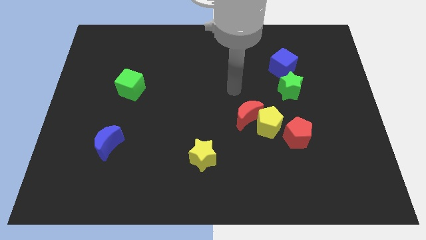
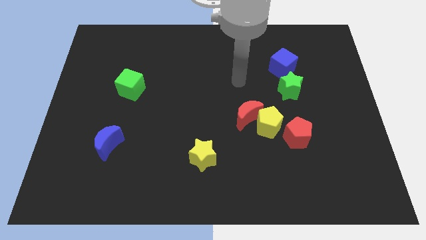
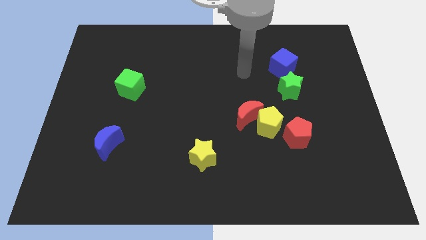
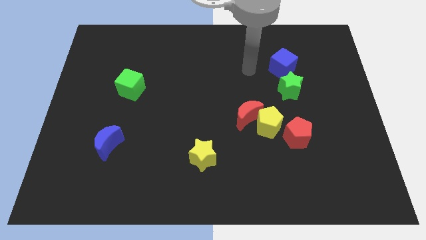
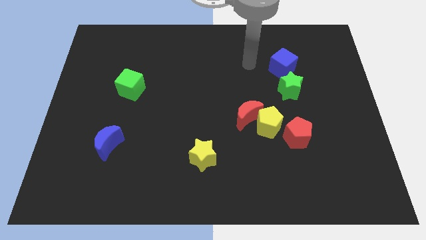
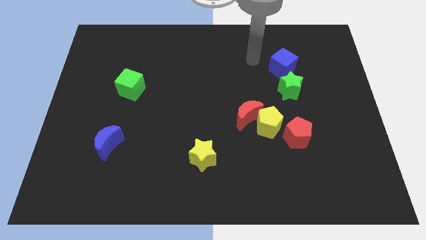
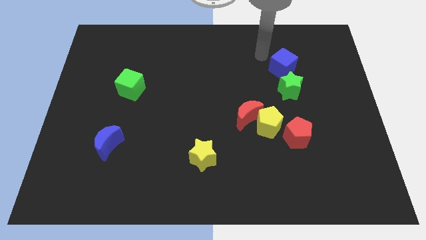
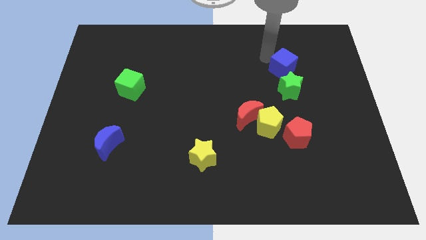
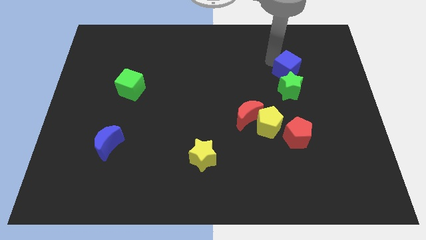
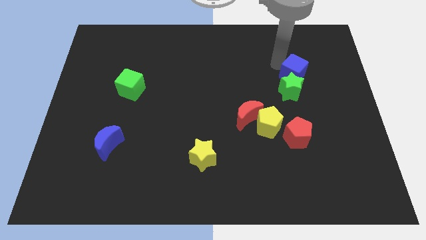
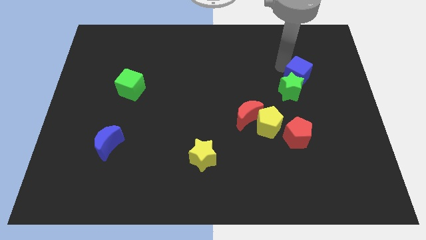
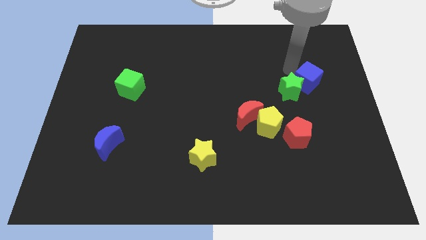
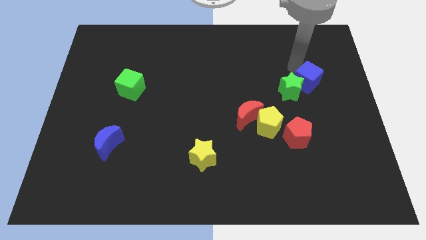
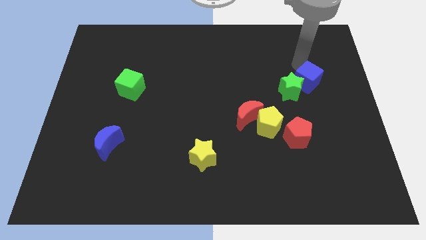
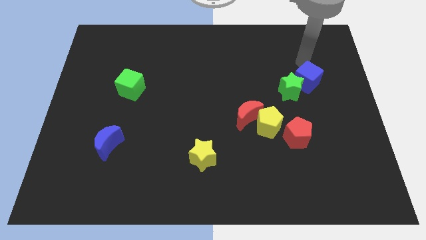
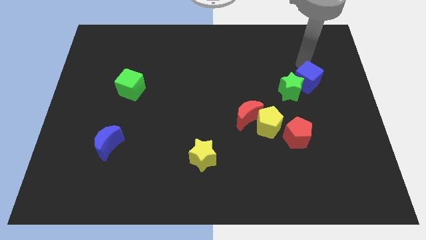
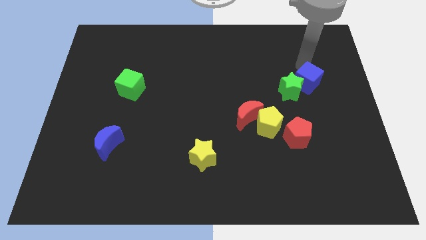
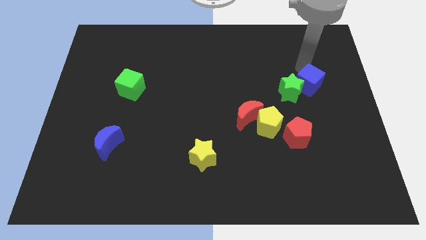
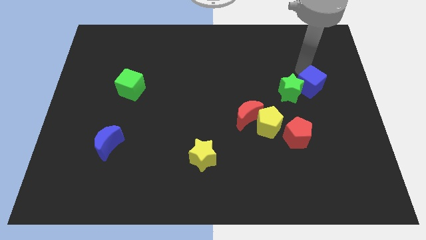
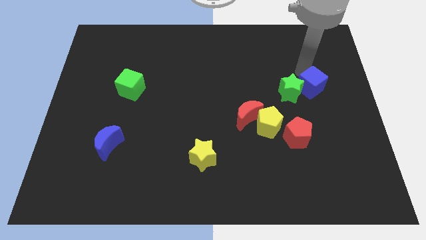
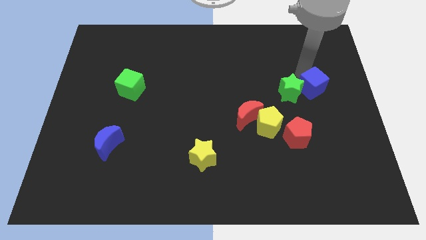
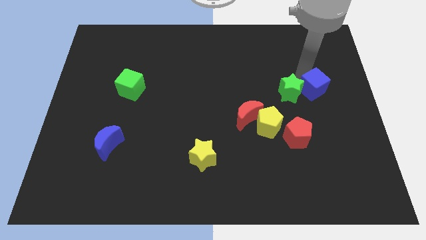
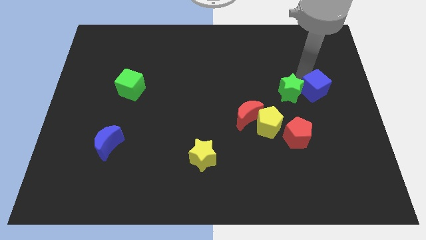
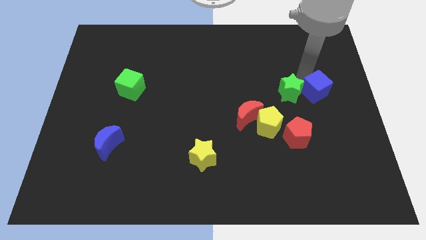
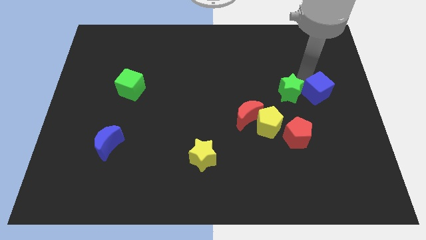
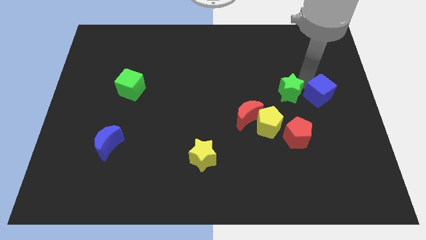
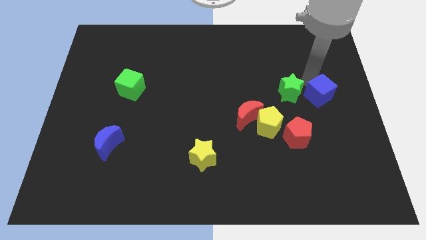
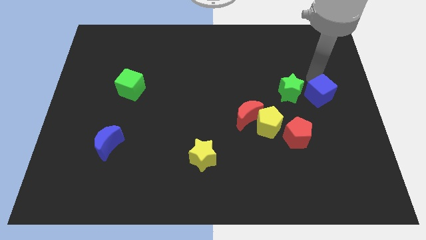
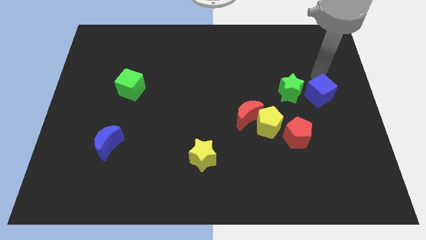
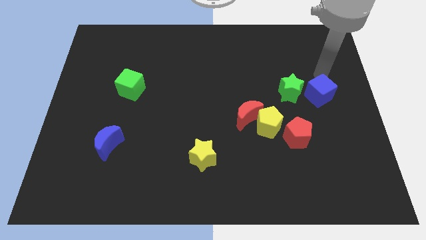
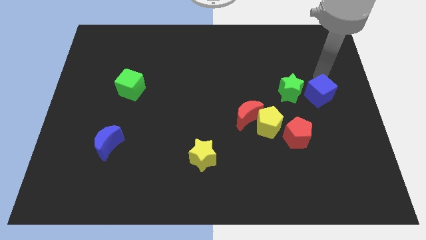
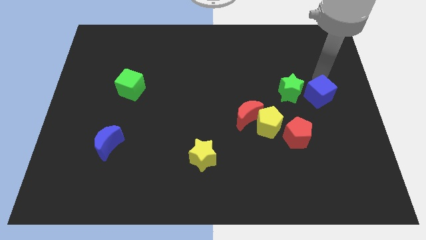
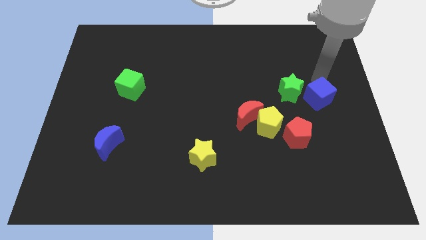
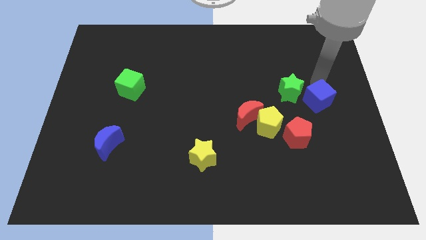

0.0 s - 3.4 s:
push the blue cube to the top right side of the red pentagon

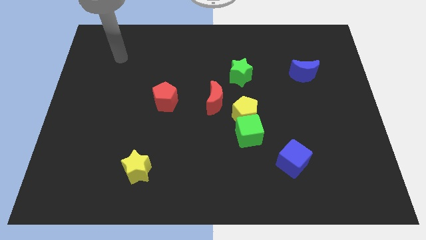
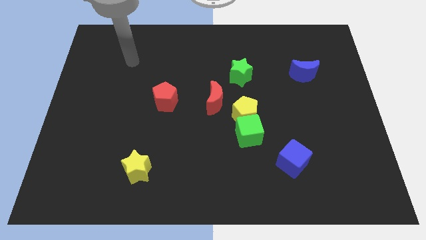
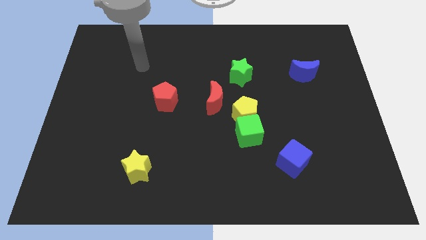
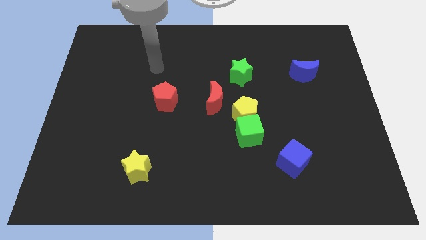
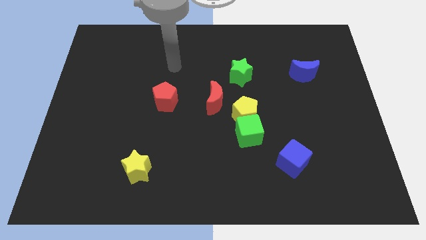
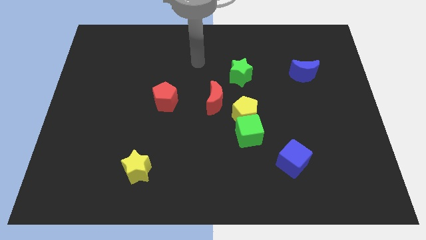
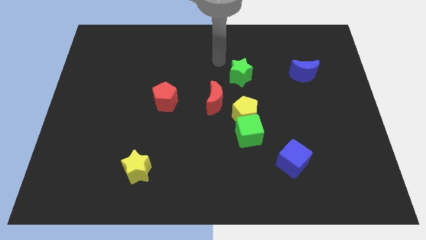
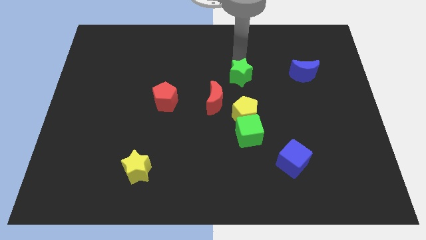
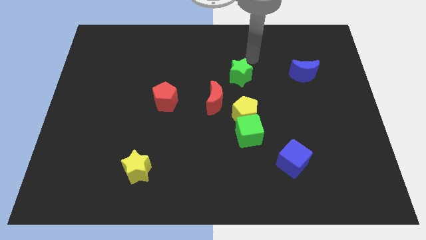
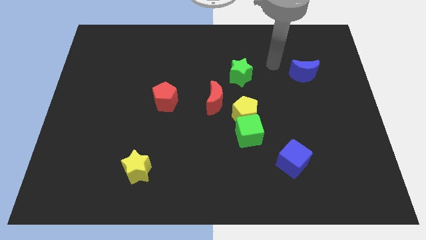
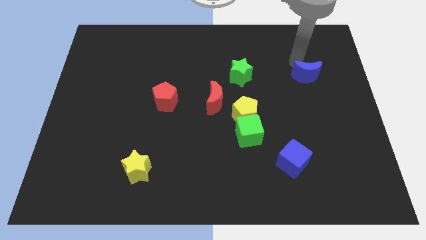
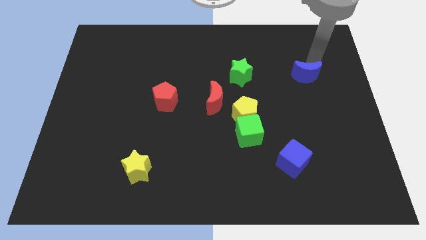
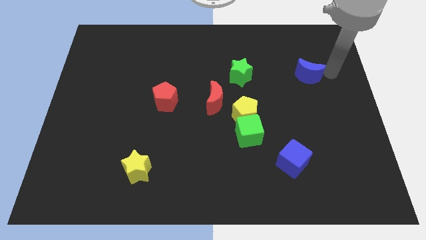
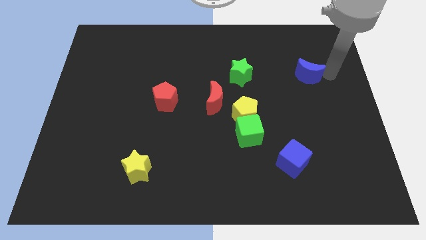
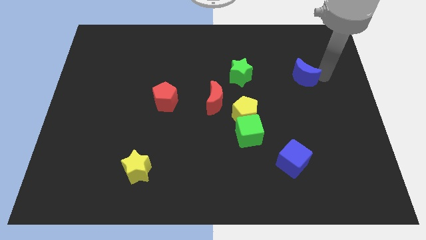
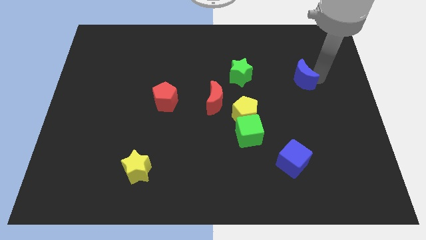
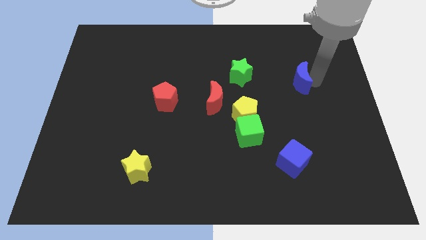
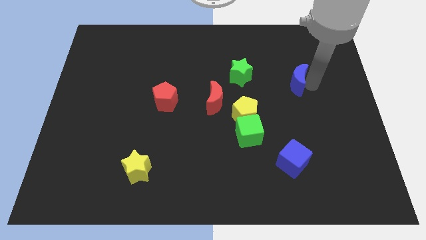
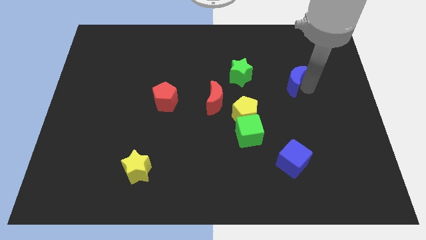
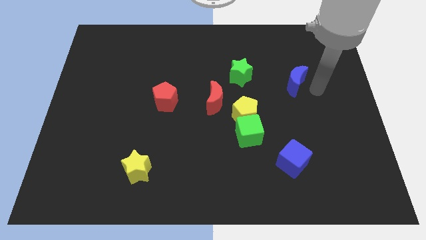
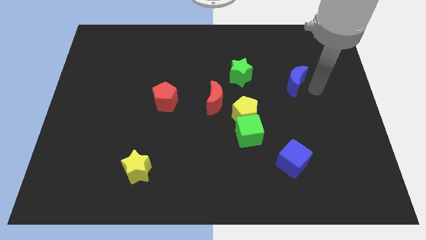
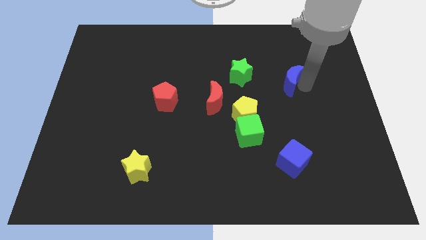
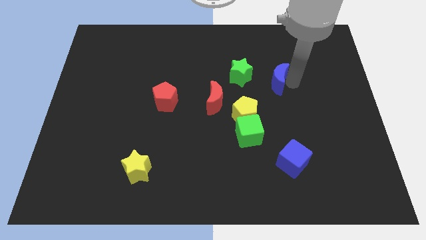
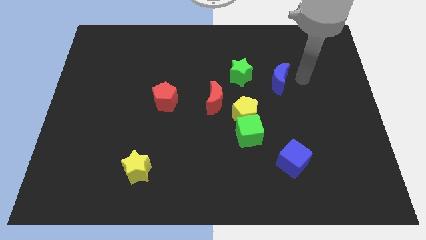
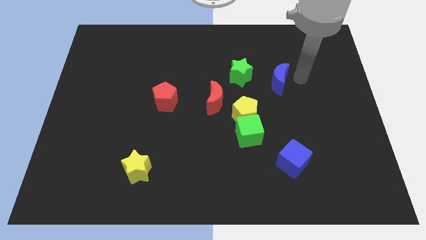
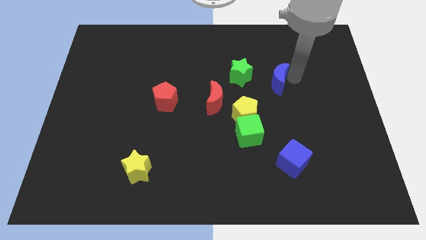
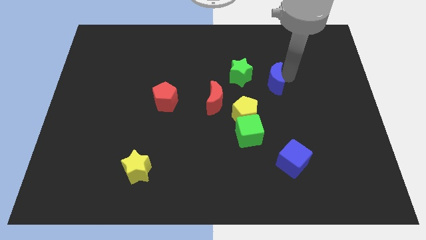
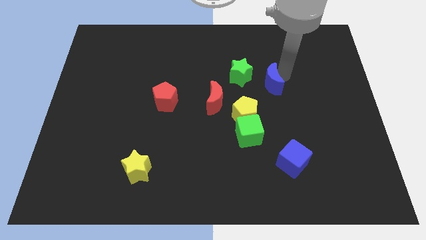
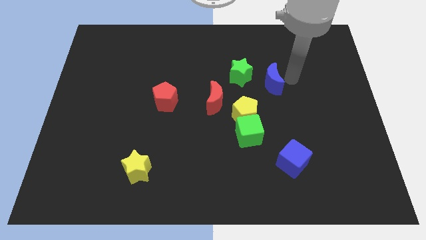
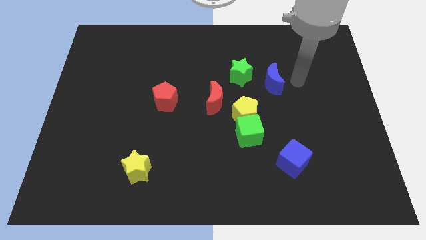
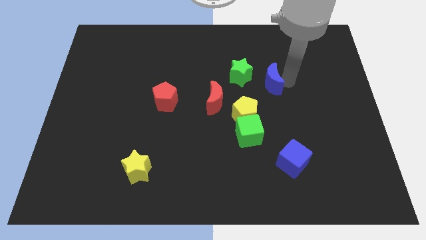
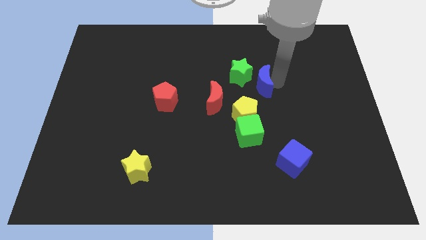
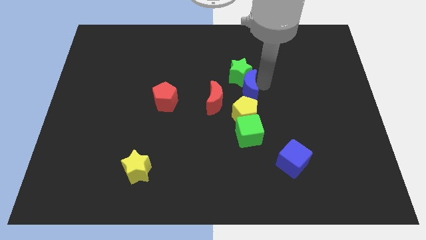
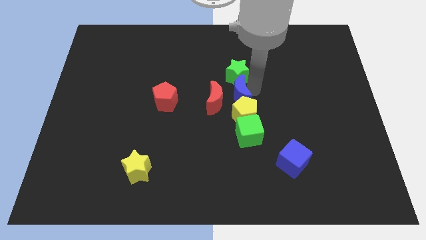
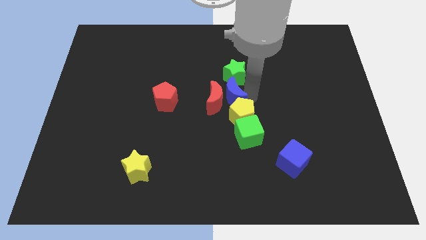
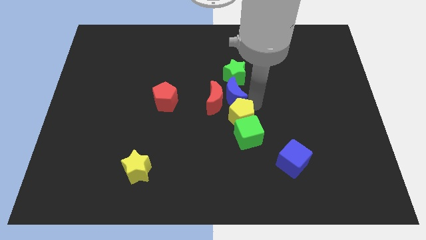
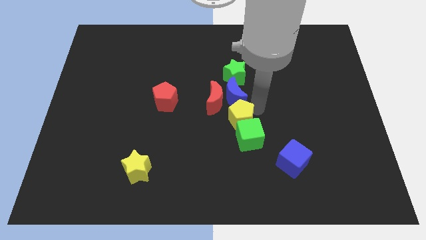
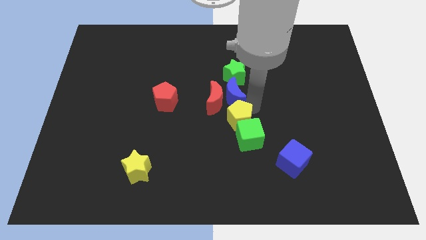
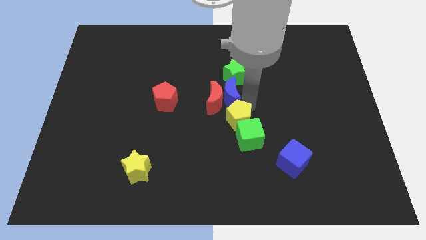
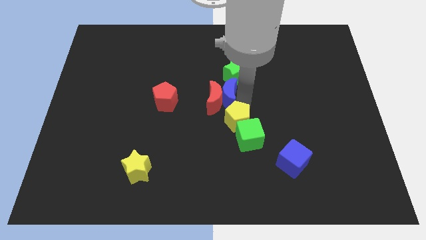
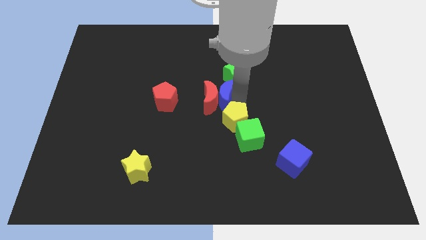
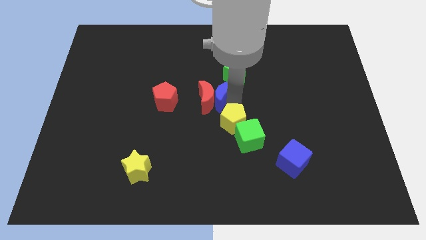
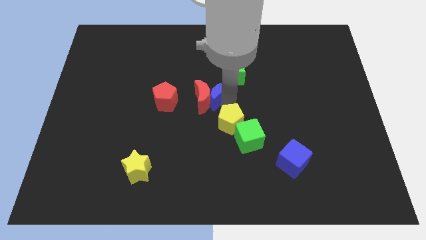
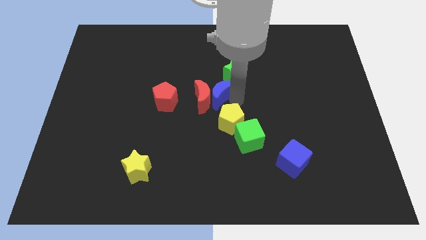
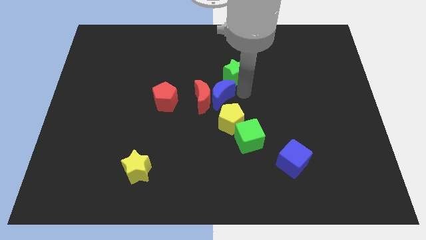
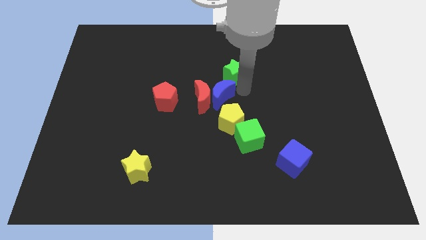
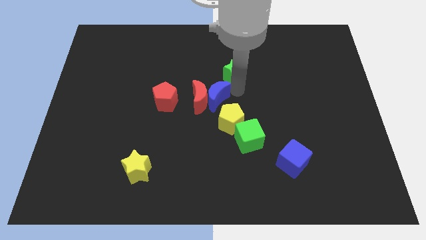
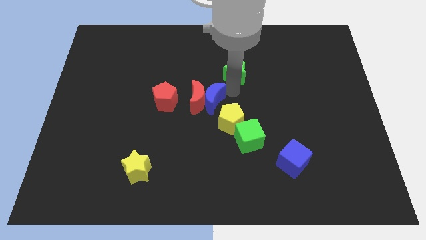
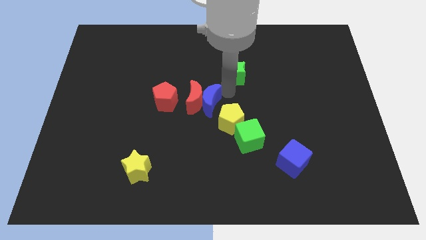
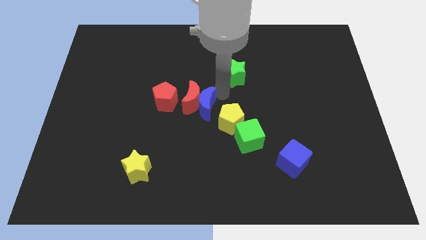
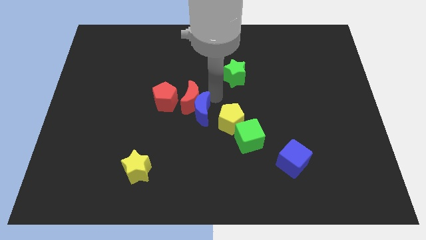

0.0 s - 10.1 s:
move the blue moon to the bottom left side of the red moon
